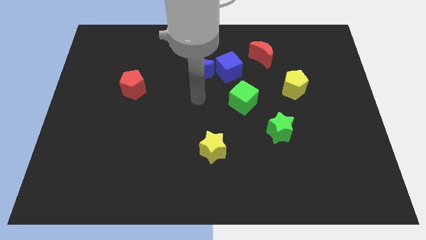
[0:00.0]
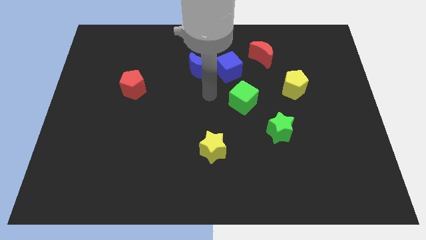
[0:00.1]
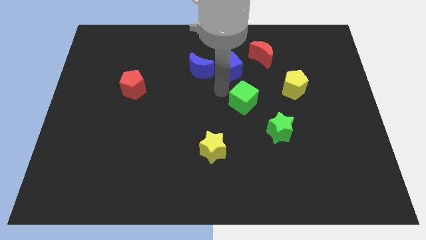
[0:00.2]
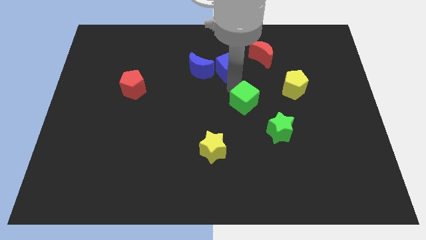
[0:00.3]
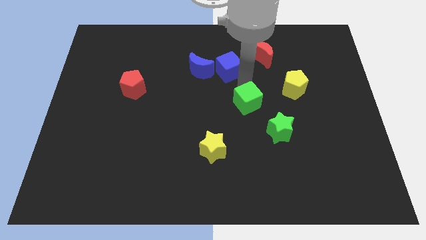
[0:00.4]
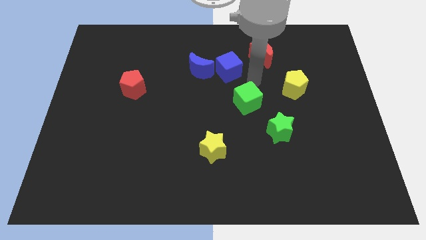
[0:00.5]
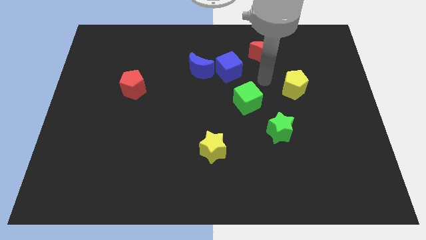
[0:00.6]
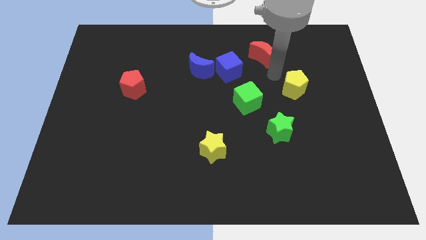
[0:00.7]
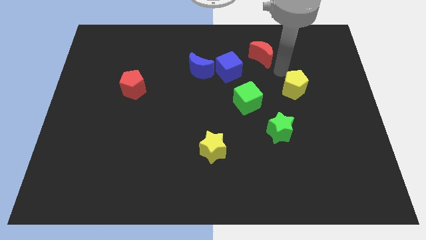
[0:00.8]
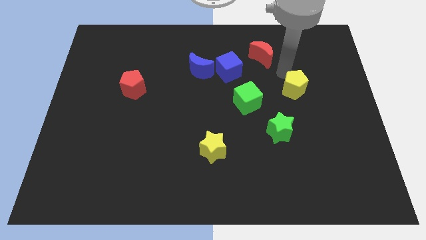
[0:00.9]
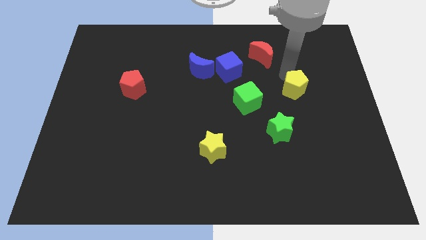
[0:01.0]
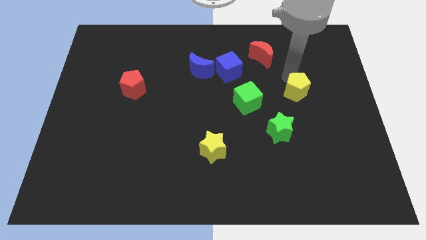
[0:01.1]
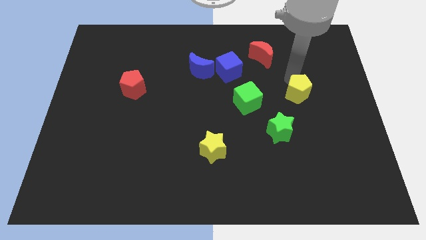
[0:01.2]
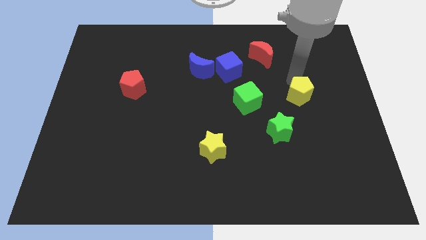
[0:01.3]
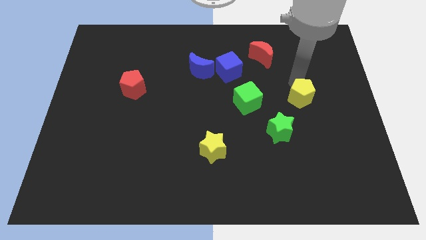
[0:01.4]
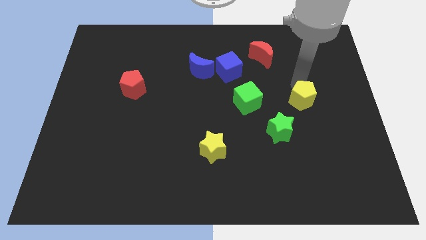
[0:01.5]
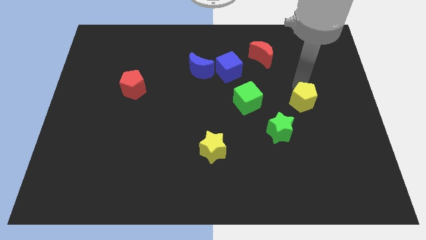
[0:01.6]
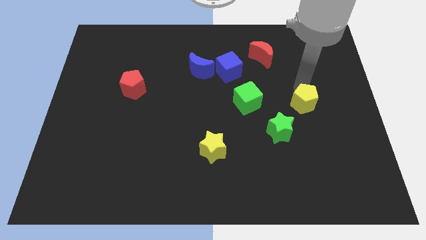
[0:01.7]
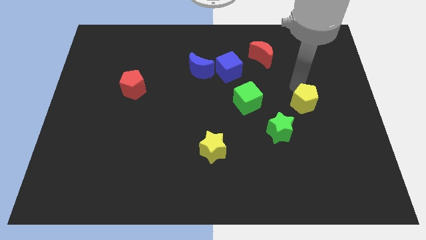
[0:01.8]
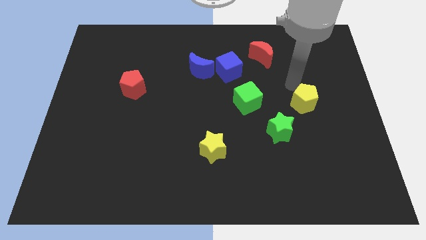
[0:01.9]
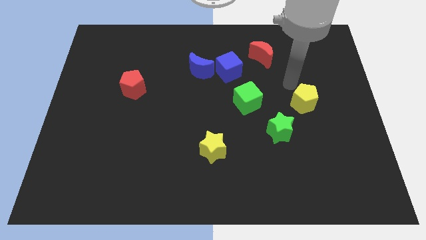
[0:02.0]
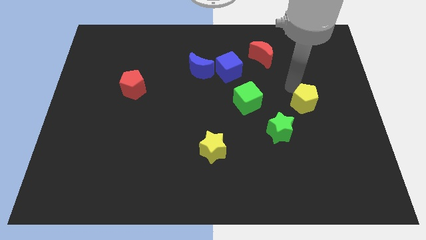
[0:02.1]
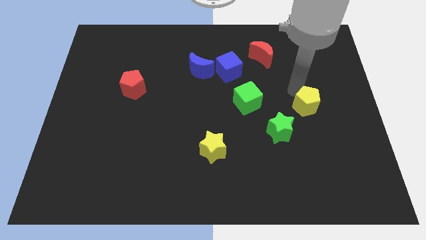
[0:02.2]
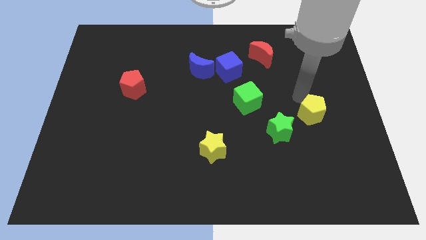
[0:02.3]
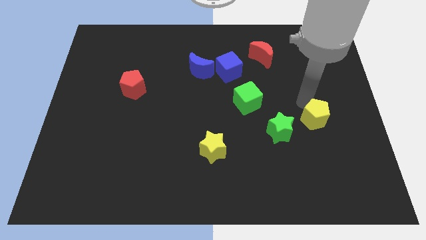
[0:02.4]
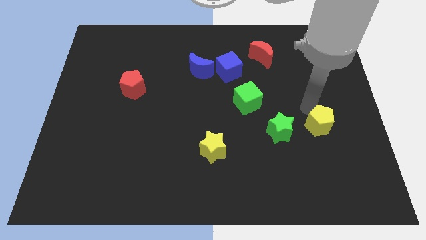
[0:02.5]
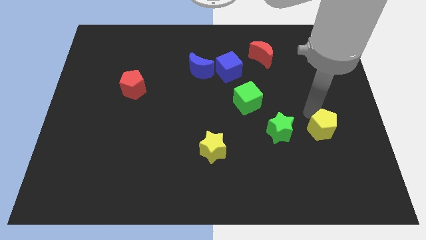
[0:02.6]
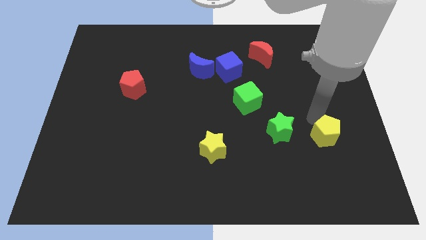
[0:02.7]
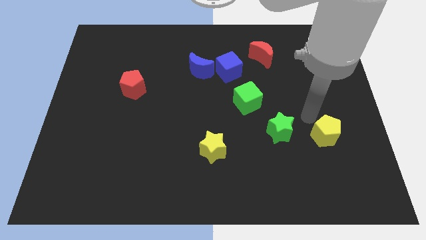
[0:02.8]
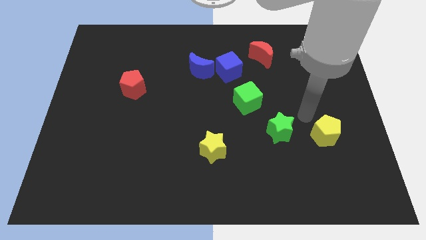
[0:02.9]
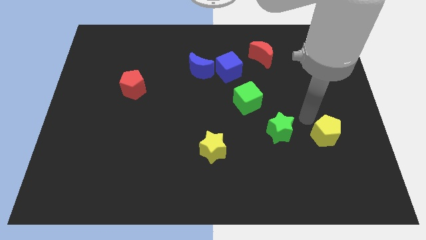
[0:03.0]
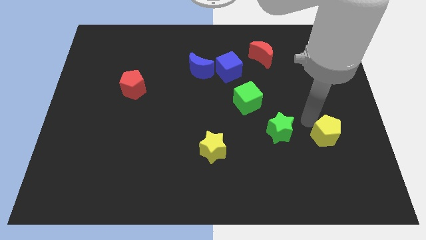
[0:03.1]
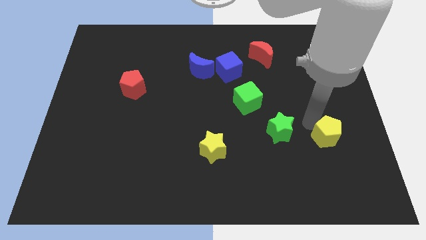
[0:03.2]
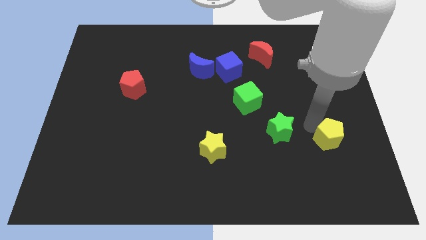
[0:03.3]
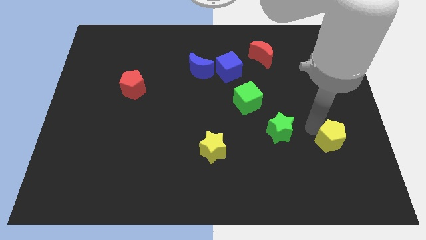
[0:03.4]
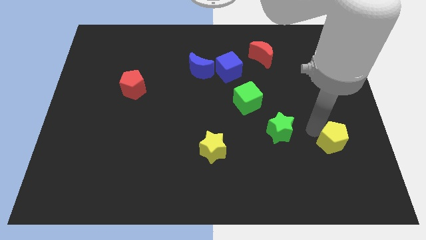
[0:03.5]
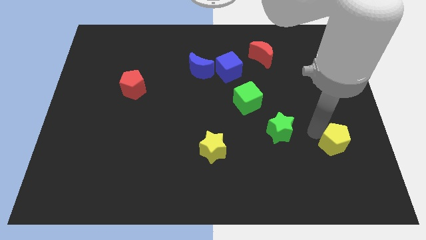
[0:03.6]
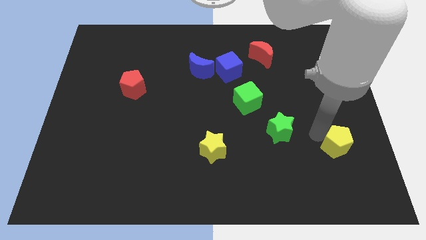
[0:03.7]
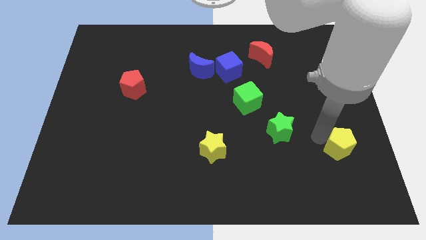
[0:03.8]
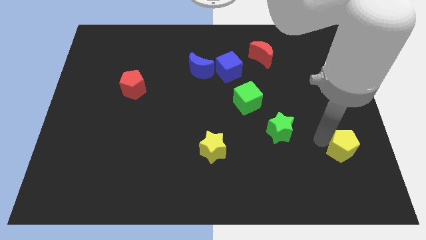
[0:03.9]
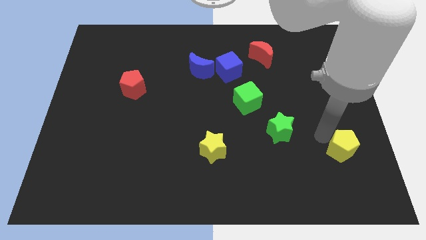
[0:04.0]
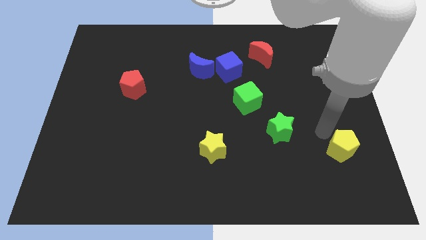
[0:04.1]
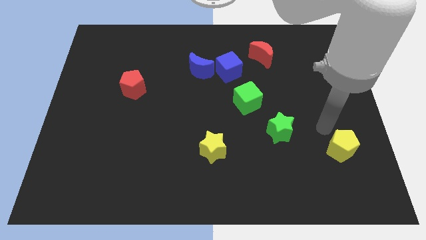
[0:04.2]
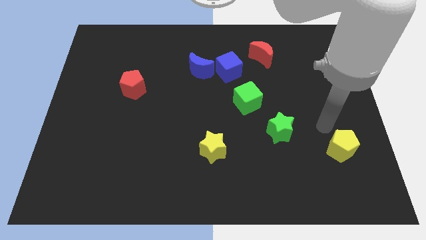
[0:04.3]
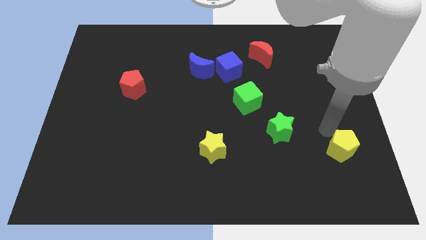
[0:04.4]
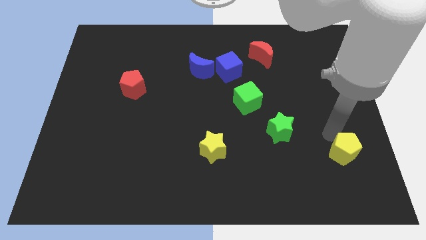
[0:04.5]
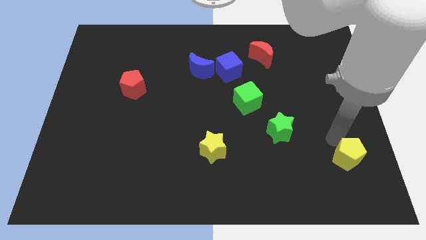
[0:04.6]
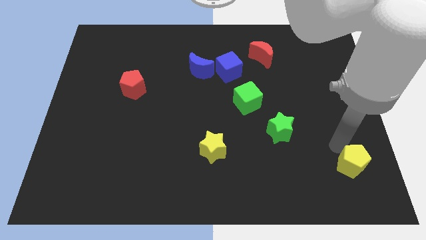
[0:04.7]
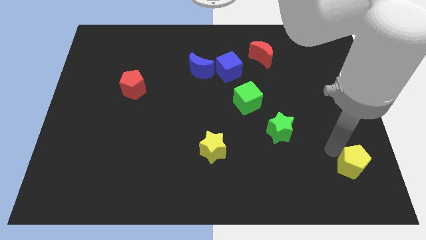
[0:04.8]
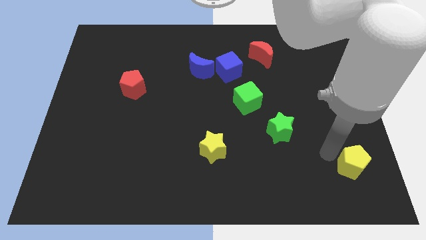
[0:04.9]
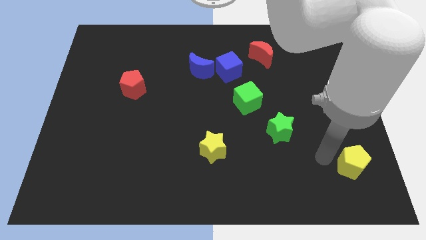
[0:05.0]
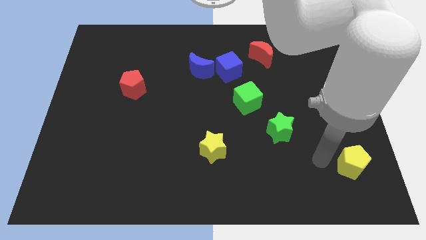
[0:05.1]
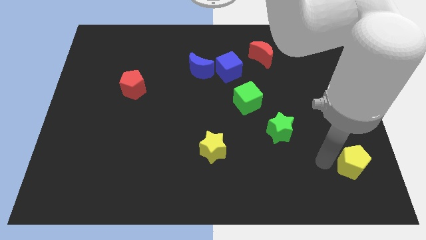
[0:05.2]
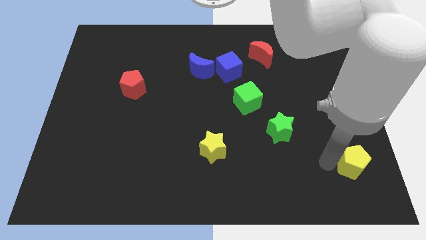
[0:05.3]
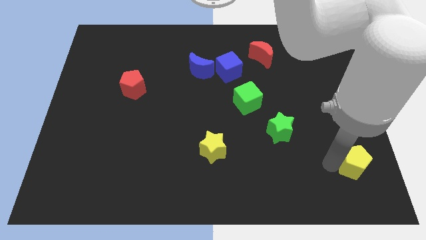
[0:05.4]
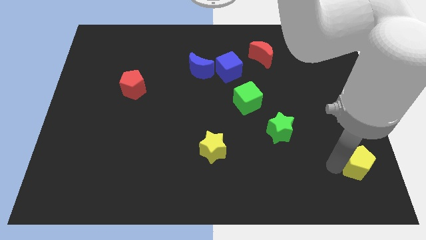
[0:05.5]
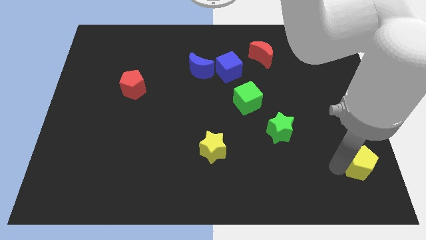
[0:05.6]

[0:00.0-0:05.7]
push the yellow pentagon to the bottom right of the board

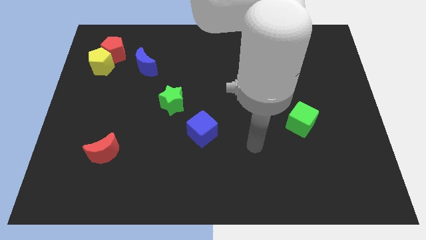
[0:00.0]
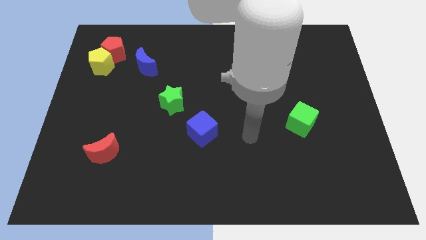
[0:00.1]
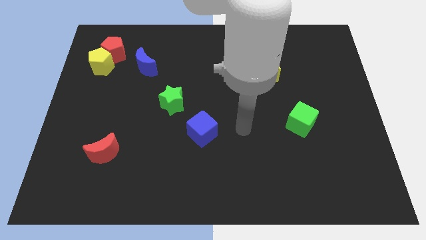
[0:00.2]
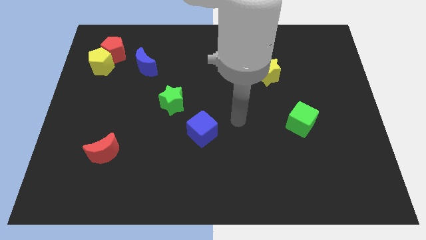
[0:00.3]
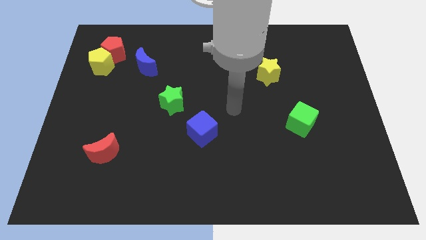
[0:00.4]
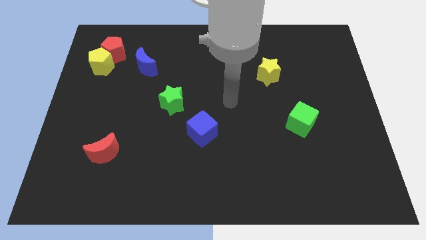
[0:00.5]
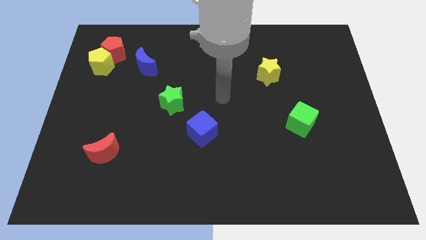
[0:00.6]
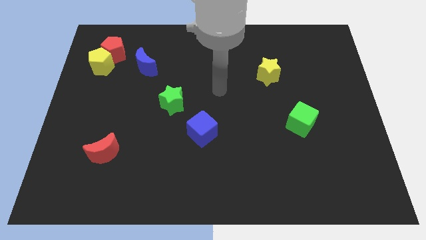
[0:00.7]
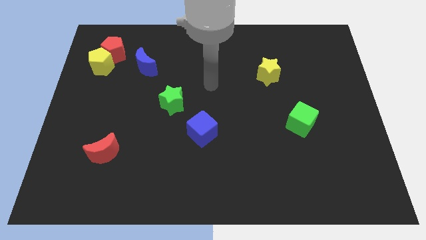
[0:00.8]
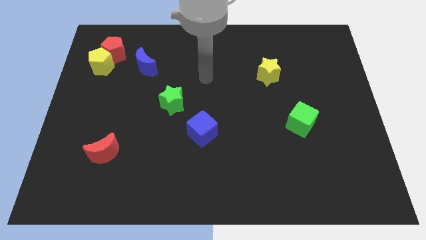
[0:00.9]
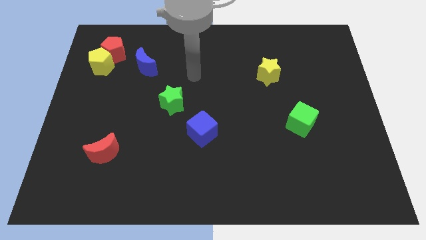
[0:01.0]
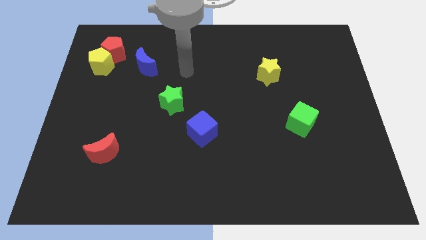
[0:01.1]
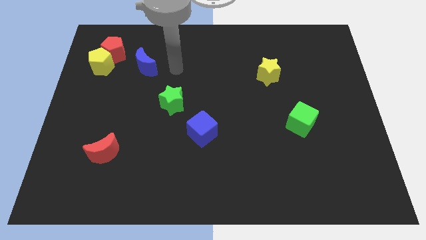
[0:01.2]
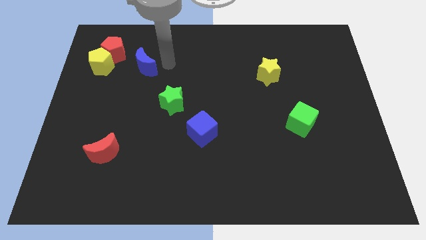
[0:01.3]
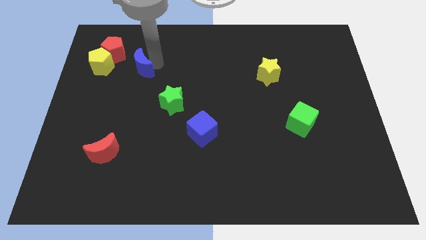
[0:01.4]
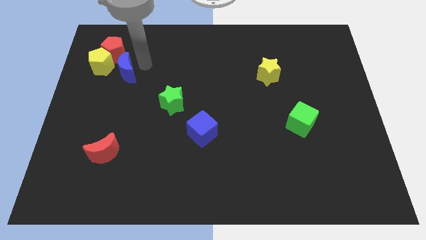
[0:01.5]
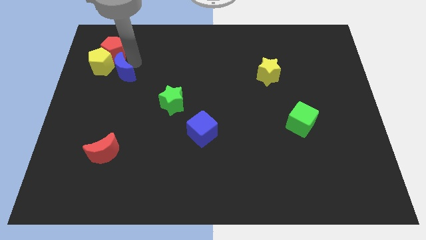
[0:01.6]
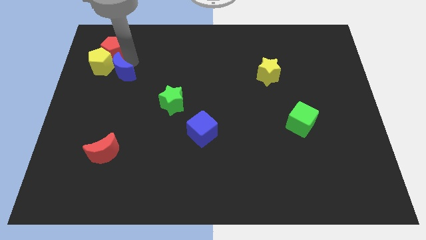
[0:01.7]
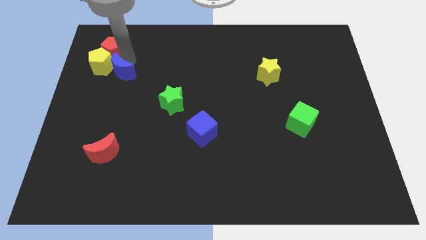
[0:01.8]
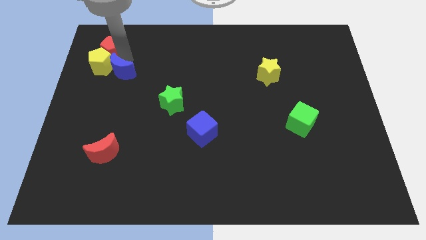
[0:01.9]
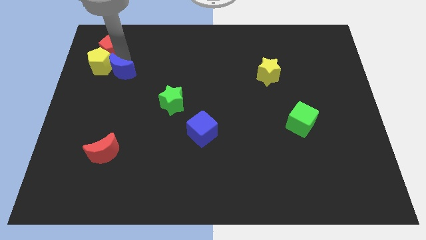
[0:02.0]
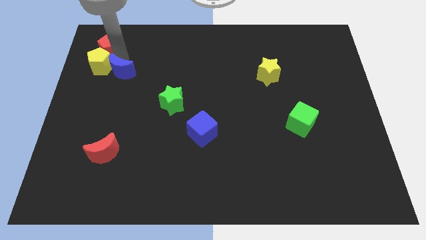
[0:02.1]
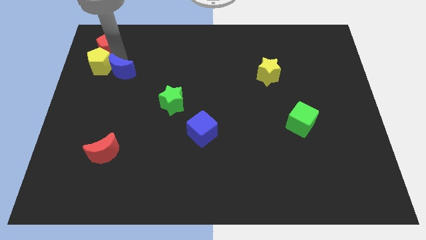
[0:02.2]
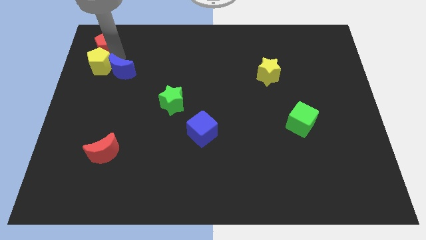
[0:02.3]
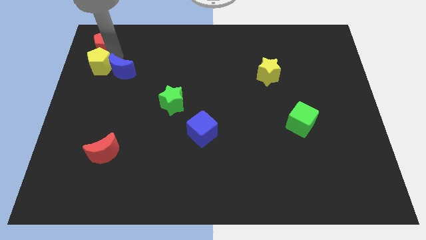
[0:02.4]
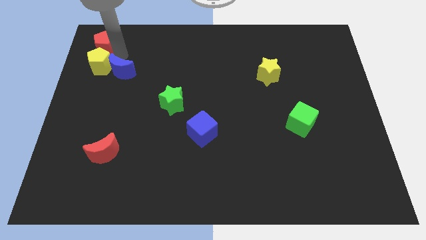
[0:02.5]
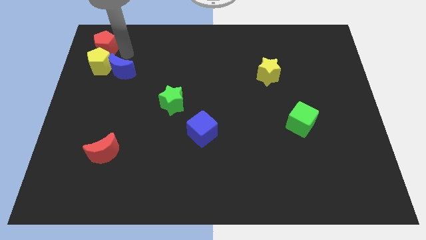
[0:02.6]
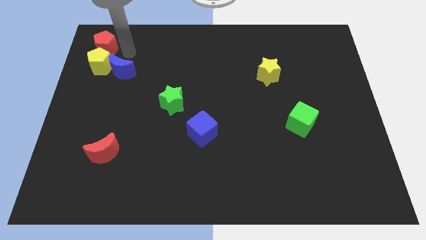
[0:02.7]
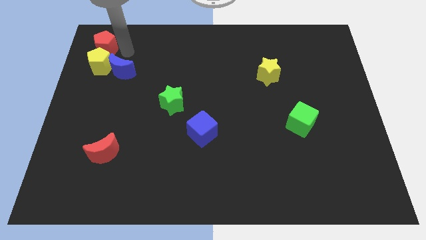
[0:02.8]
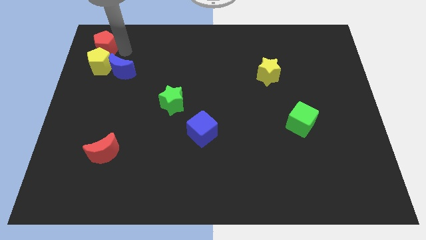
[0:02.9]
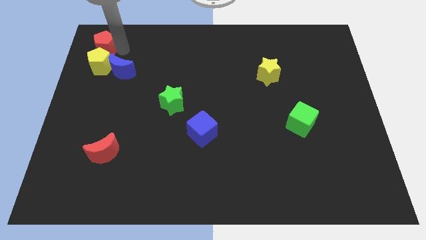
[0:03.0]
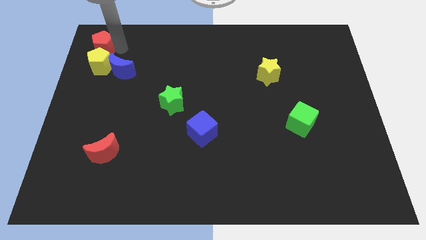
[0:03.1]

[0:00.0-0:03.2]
move the red pentagon to the top left
